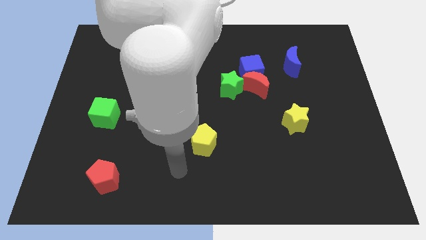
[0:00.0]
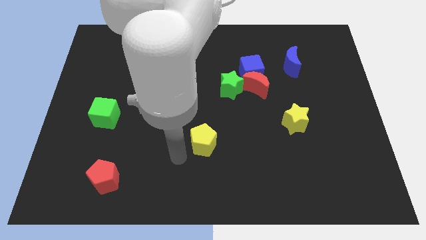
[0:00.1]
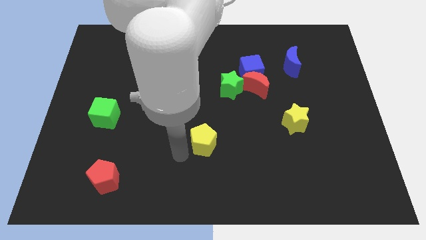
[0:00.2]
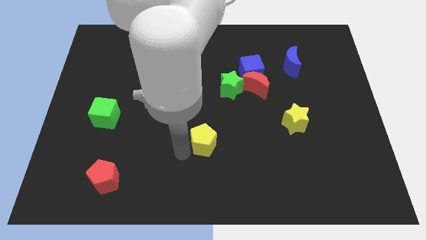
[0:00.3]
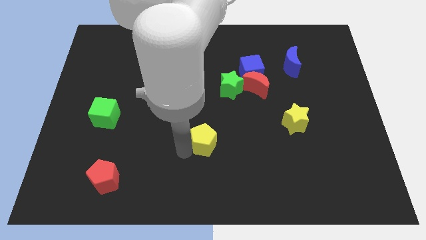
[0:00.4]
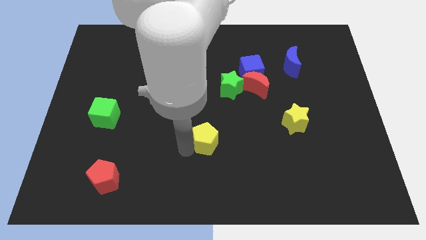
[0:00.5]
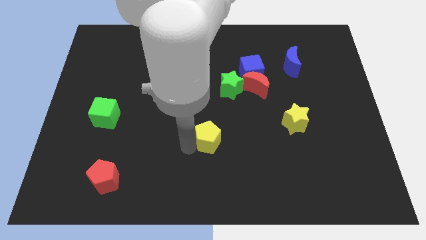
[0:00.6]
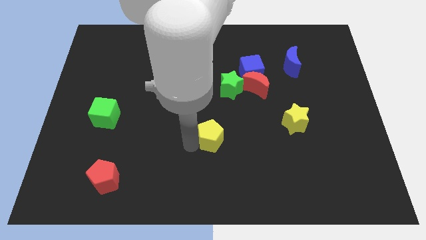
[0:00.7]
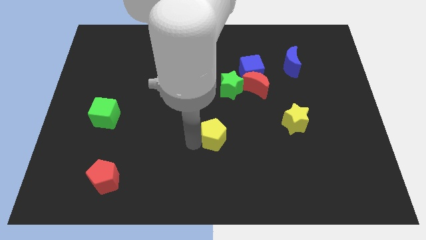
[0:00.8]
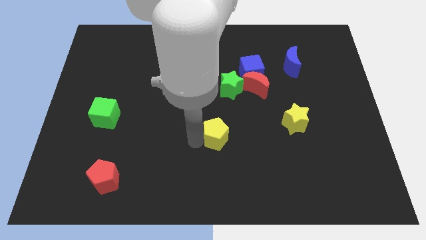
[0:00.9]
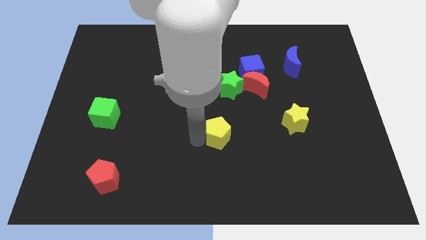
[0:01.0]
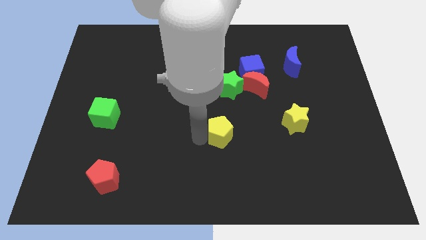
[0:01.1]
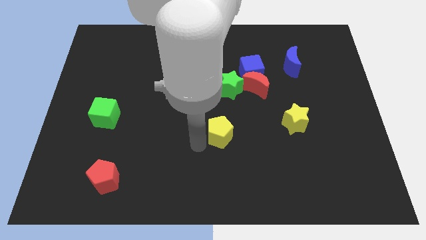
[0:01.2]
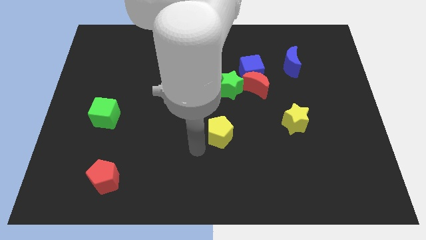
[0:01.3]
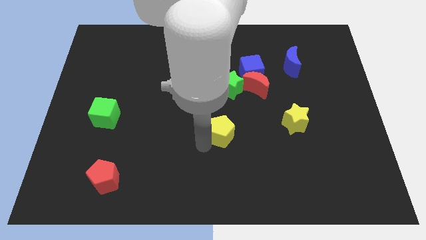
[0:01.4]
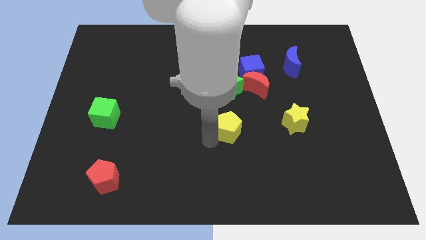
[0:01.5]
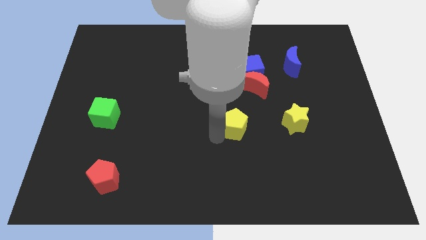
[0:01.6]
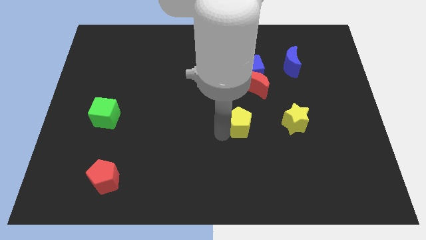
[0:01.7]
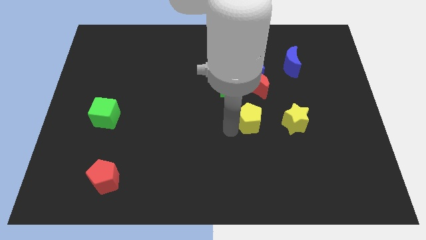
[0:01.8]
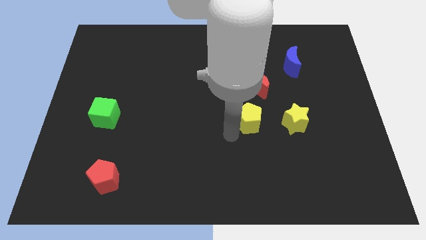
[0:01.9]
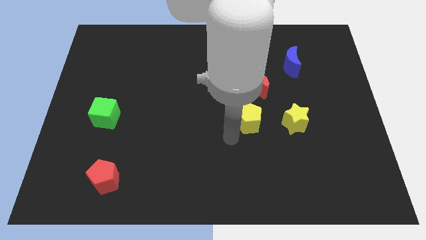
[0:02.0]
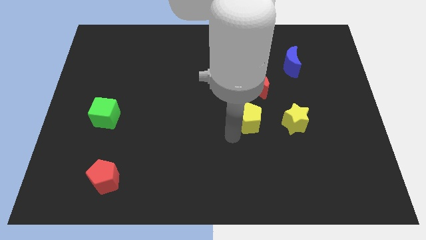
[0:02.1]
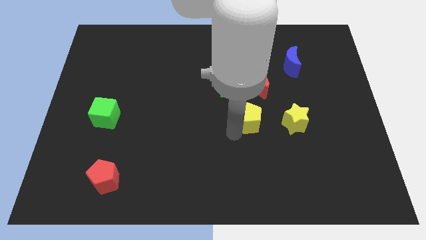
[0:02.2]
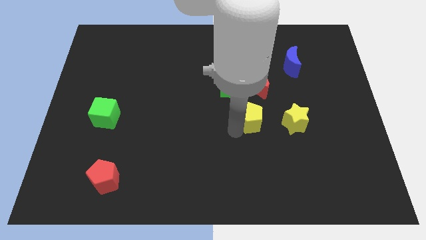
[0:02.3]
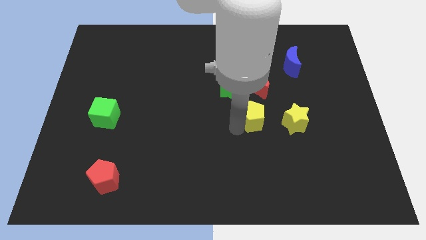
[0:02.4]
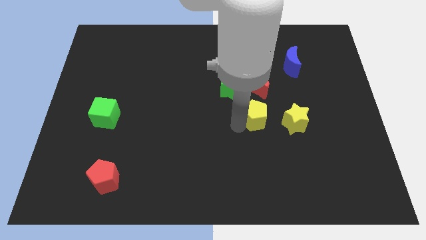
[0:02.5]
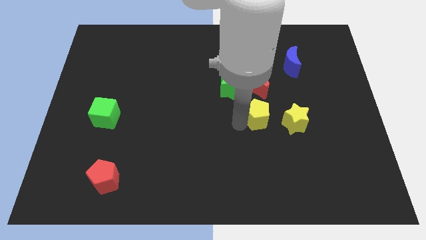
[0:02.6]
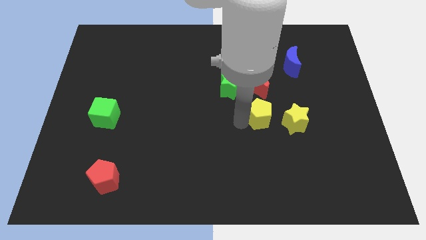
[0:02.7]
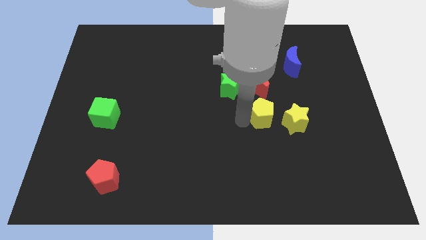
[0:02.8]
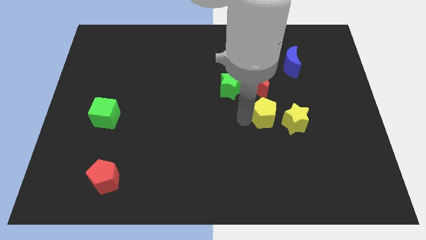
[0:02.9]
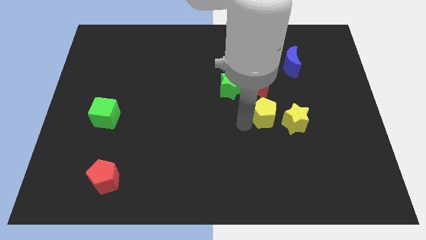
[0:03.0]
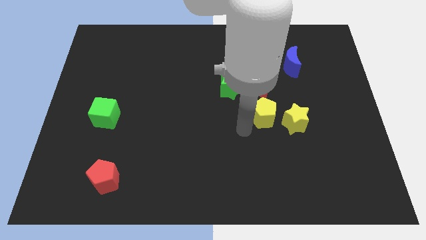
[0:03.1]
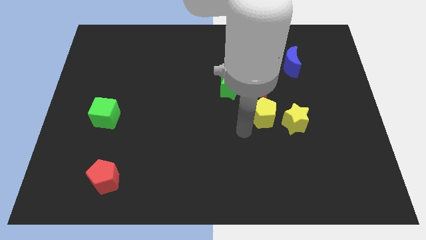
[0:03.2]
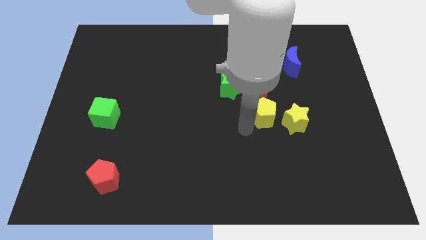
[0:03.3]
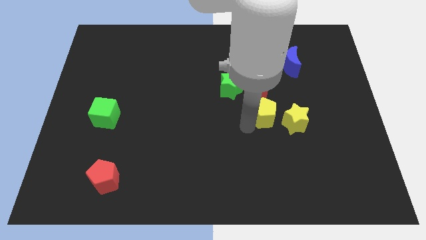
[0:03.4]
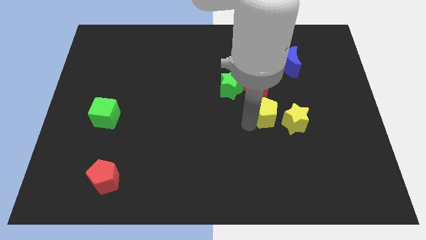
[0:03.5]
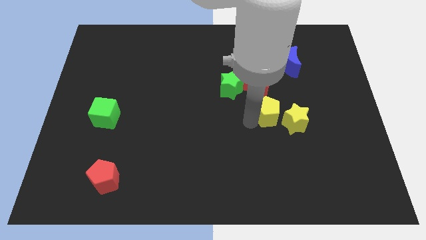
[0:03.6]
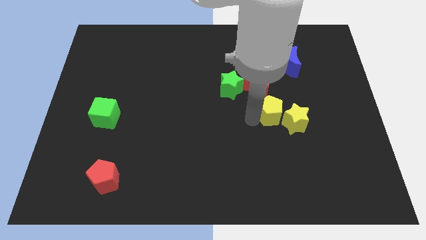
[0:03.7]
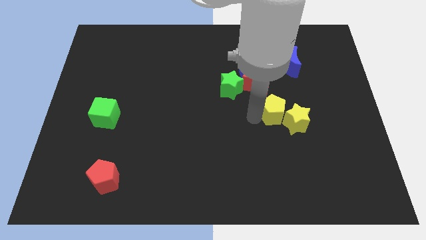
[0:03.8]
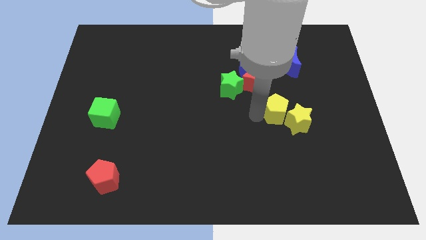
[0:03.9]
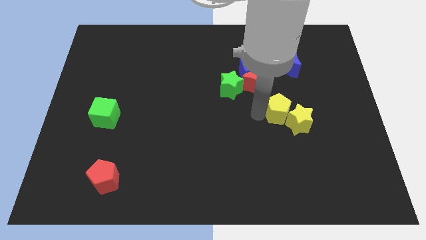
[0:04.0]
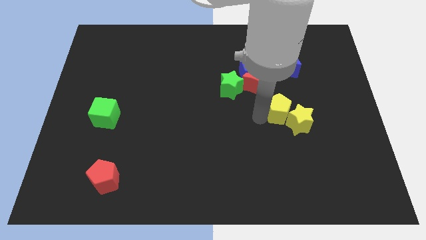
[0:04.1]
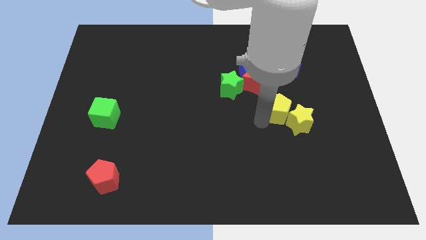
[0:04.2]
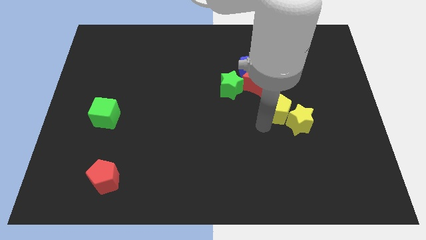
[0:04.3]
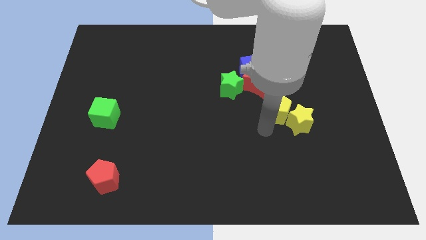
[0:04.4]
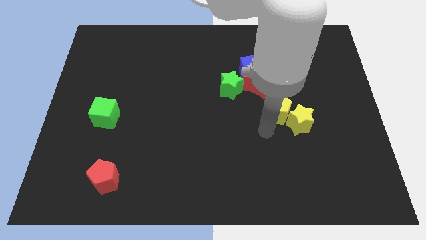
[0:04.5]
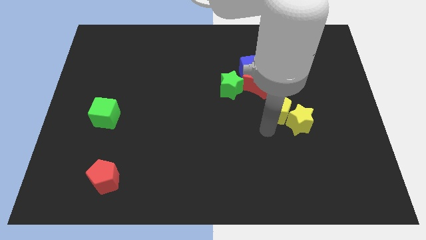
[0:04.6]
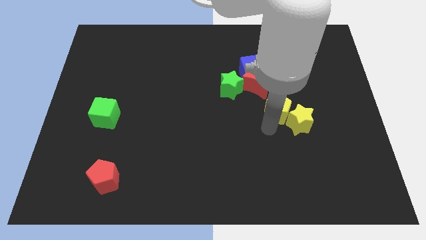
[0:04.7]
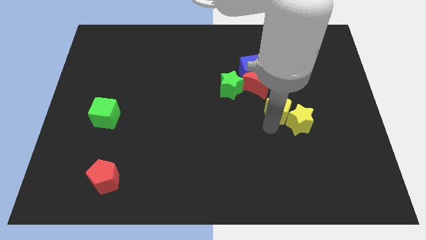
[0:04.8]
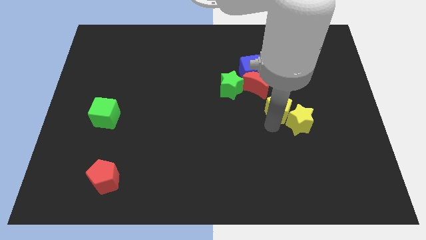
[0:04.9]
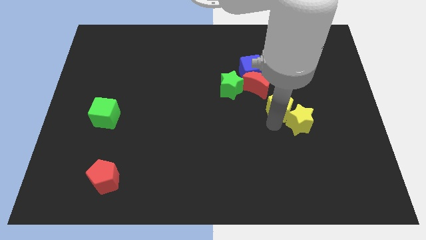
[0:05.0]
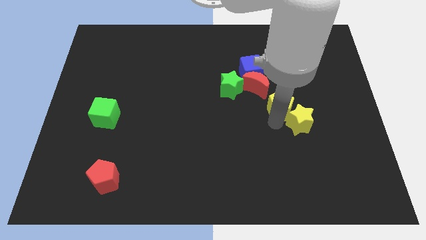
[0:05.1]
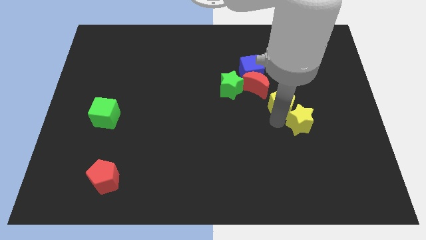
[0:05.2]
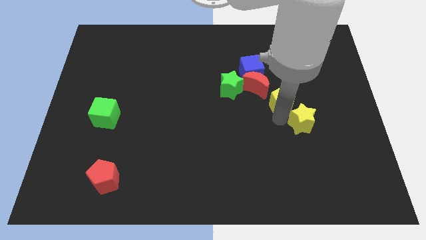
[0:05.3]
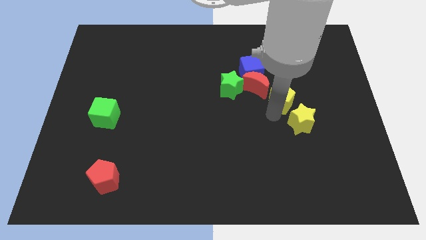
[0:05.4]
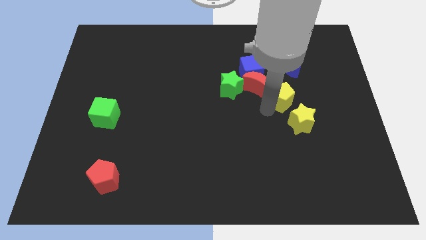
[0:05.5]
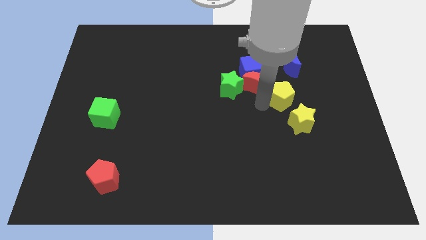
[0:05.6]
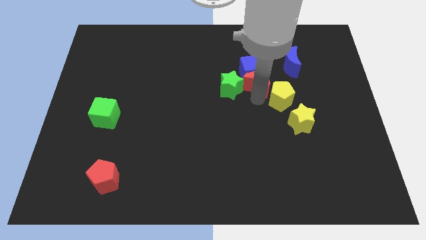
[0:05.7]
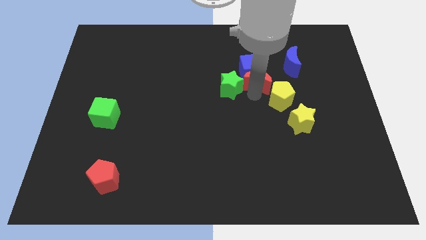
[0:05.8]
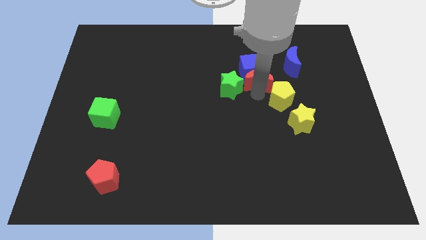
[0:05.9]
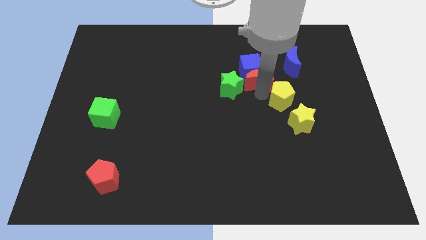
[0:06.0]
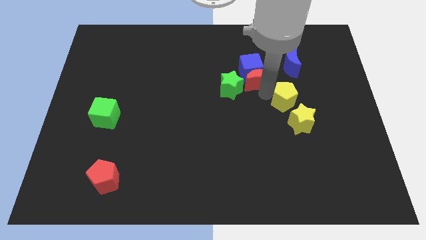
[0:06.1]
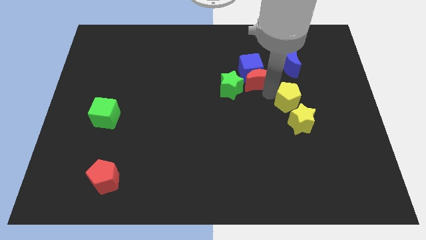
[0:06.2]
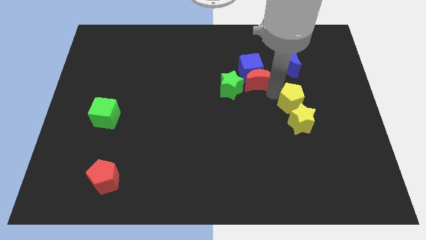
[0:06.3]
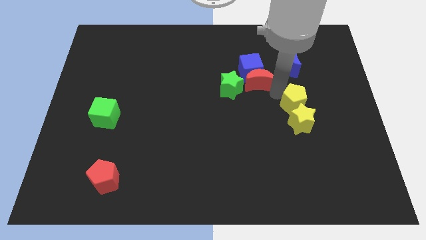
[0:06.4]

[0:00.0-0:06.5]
put the yellow pentagon to the top right side of the yellow star
